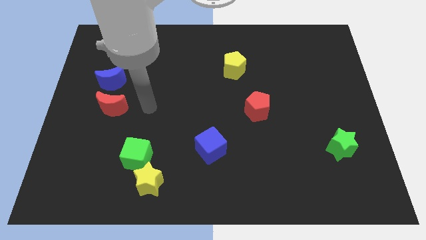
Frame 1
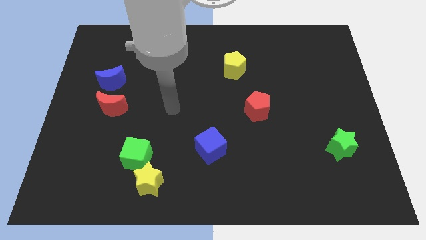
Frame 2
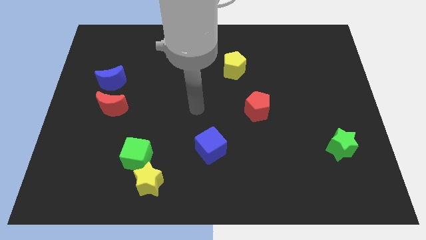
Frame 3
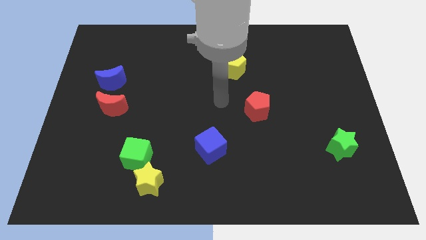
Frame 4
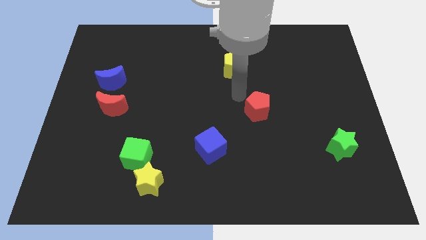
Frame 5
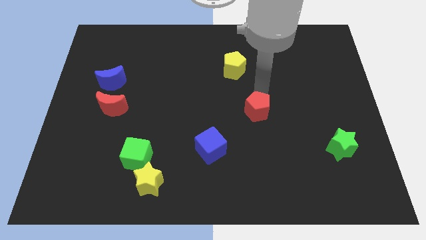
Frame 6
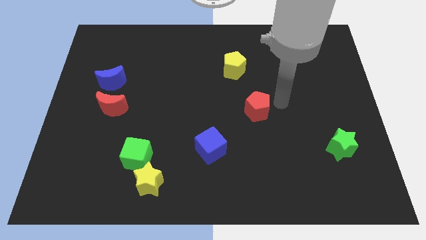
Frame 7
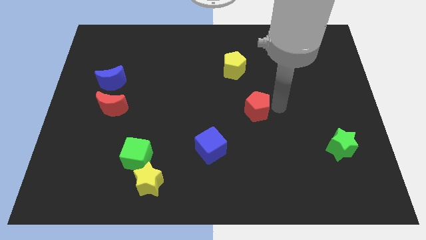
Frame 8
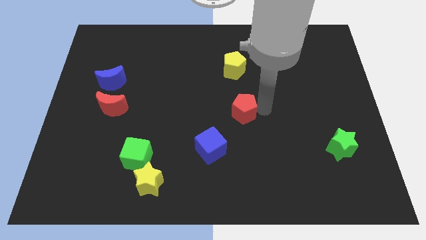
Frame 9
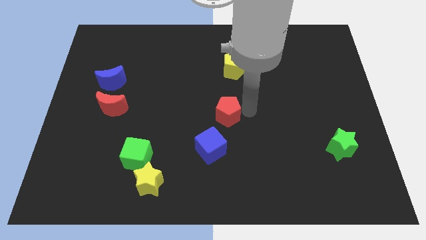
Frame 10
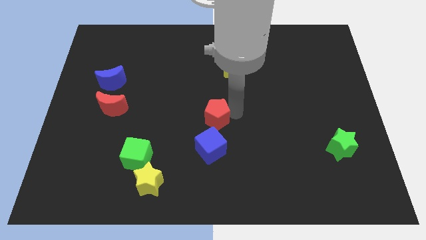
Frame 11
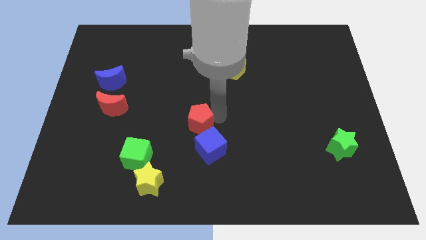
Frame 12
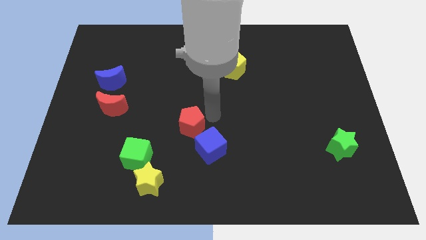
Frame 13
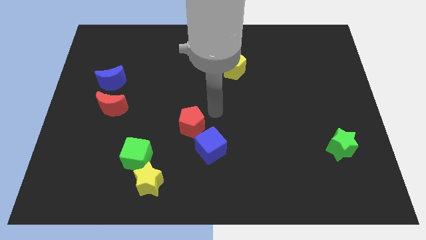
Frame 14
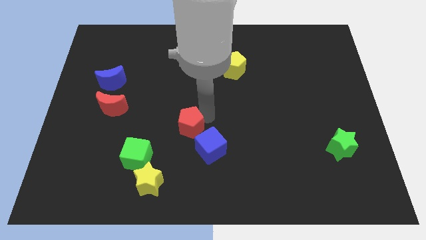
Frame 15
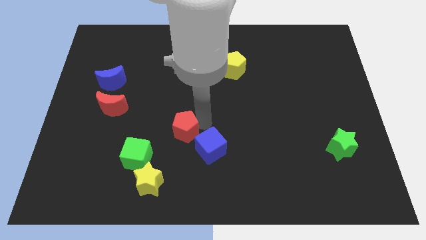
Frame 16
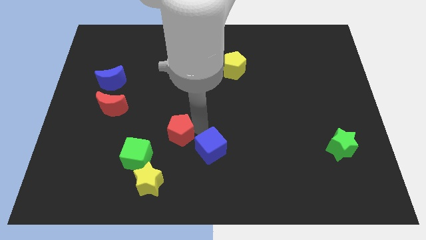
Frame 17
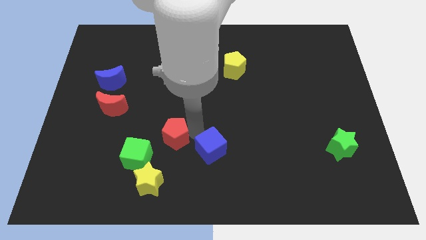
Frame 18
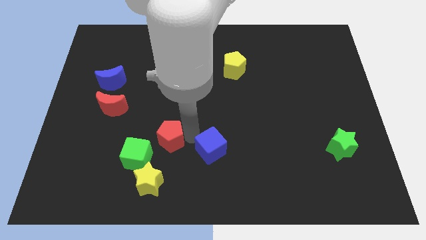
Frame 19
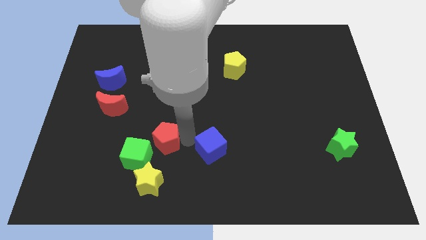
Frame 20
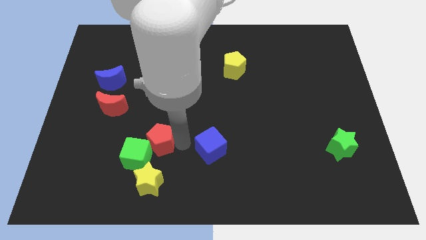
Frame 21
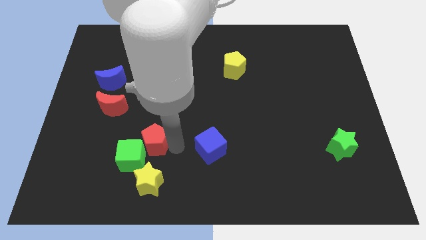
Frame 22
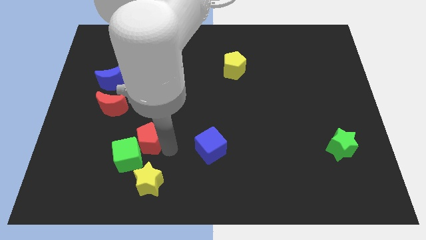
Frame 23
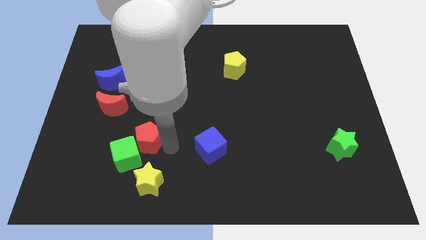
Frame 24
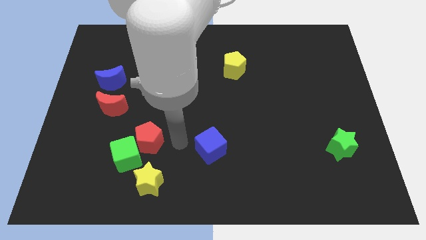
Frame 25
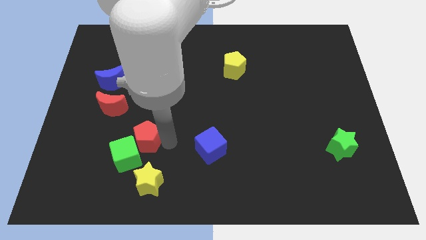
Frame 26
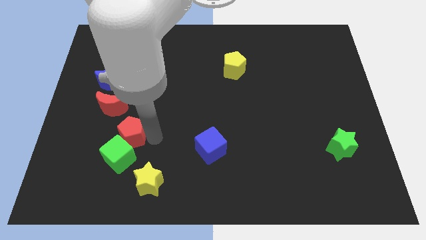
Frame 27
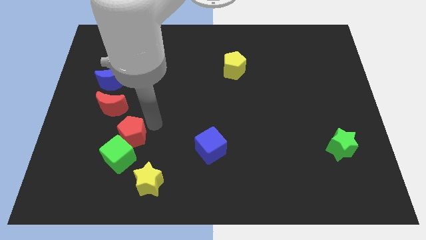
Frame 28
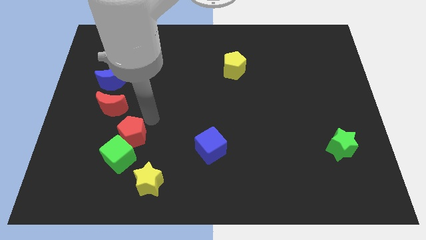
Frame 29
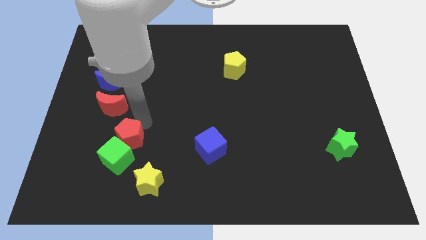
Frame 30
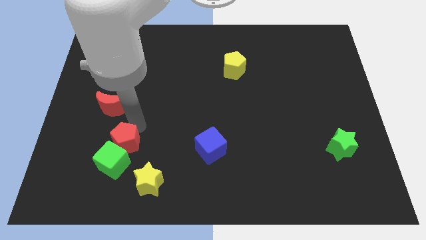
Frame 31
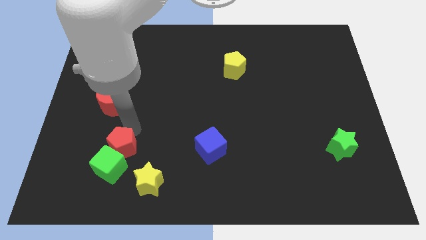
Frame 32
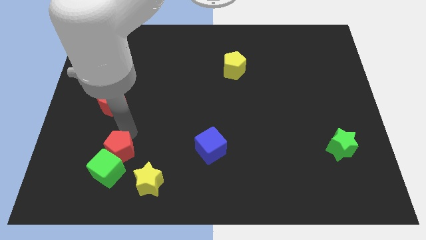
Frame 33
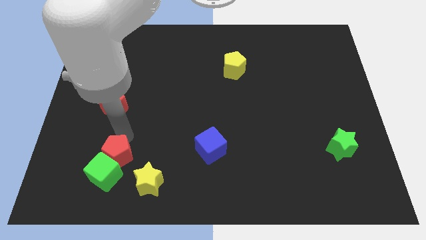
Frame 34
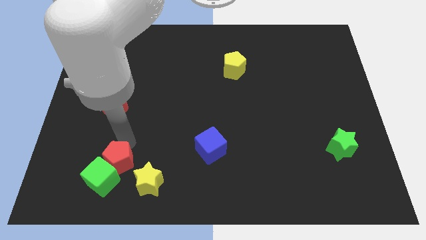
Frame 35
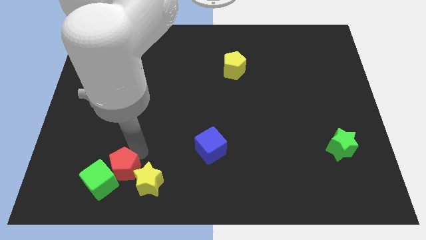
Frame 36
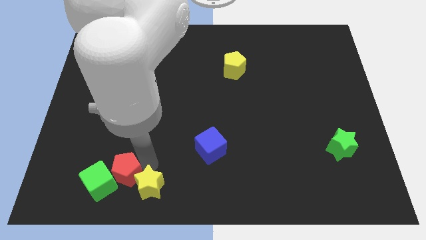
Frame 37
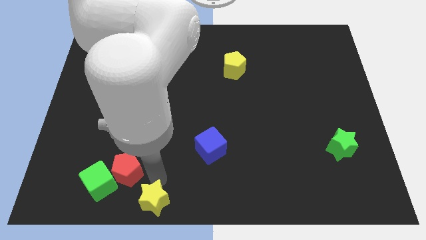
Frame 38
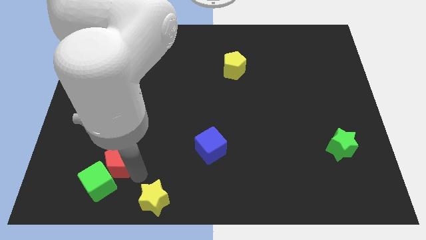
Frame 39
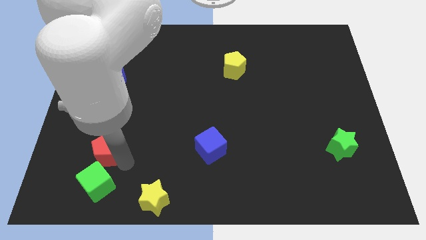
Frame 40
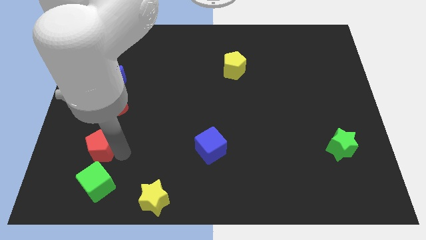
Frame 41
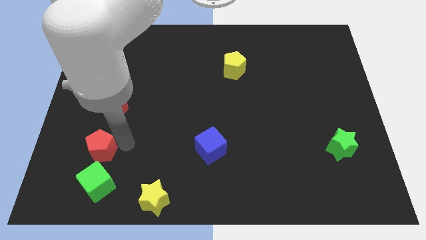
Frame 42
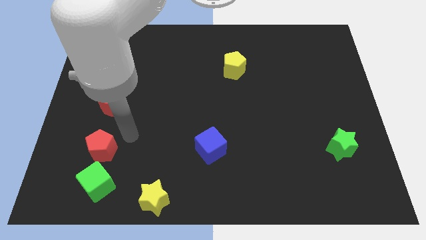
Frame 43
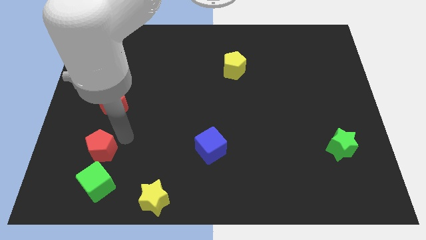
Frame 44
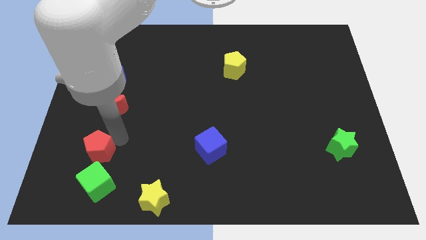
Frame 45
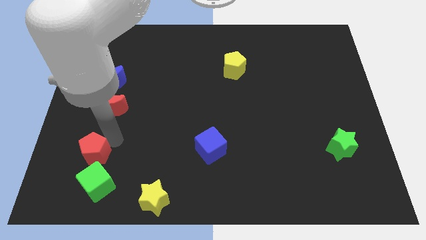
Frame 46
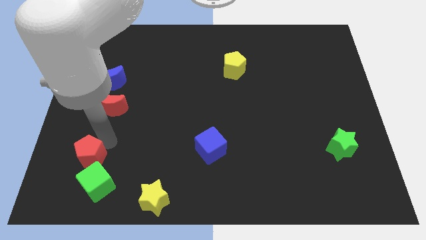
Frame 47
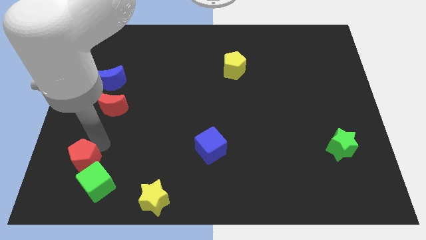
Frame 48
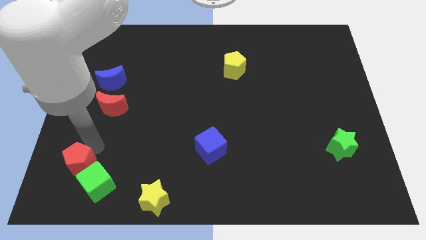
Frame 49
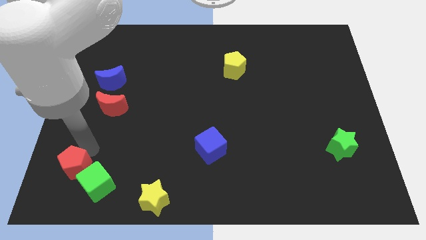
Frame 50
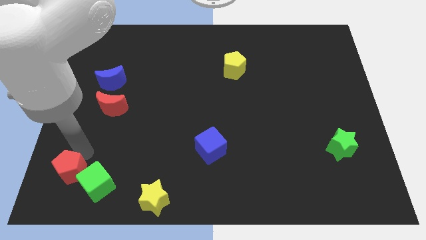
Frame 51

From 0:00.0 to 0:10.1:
put the red pentagon to the bottom left corner

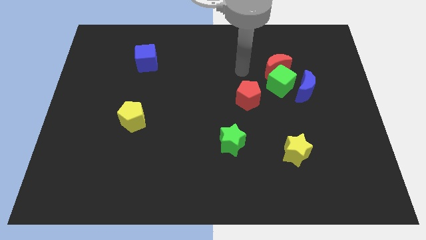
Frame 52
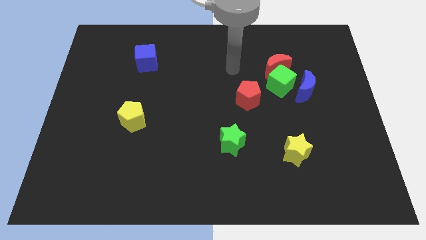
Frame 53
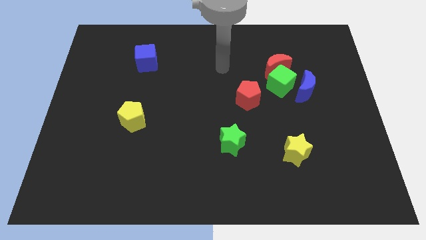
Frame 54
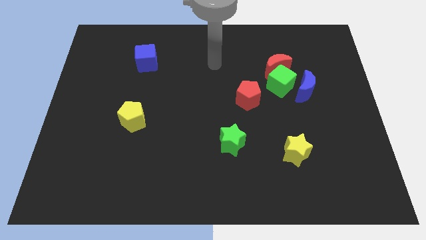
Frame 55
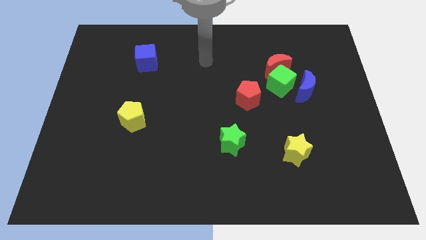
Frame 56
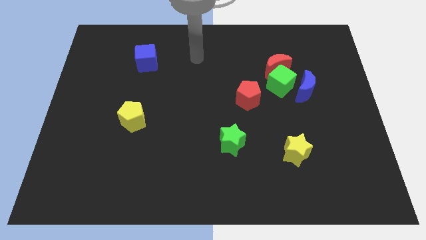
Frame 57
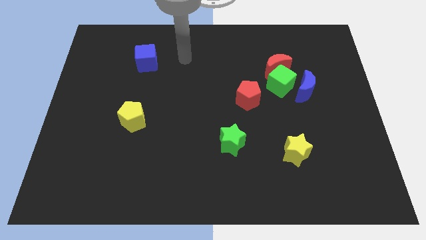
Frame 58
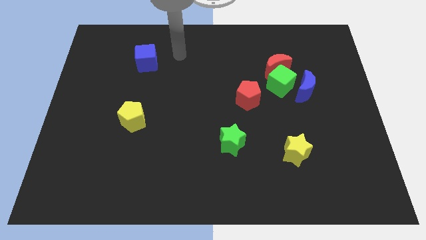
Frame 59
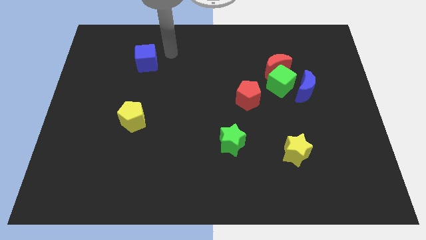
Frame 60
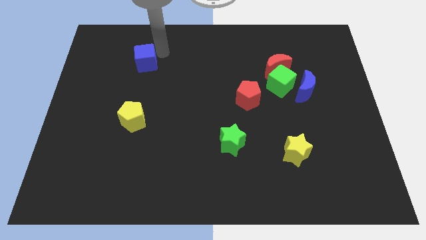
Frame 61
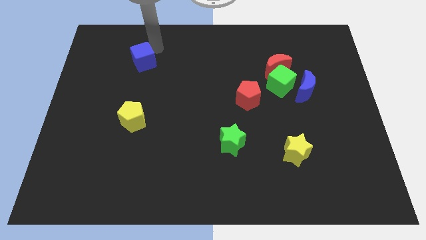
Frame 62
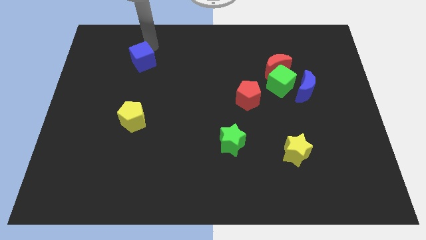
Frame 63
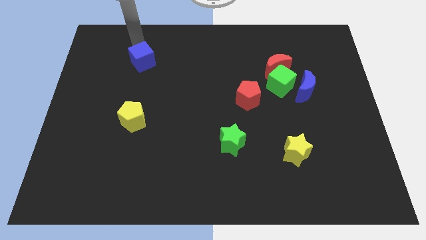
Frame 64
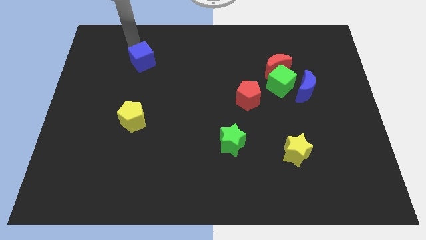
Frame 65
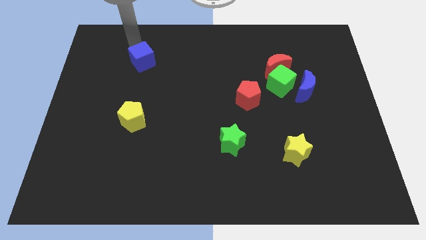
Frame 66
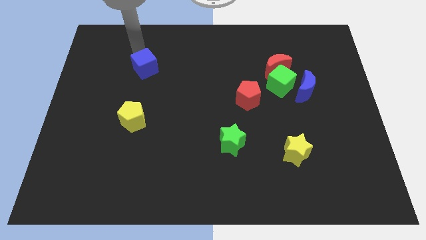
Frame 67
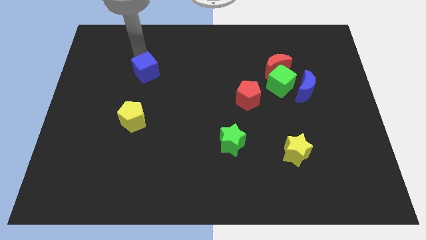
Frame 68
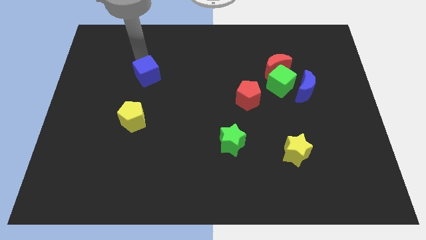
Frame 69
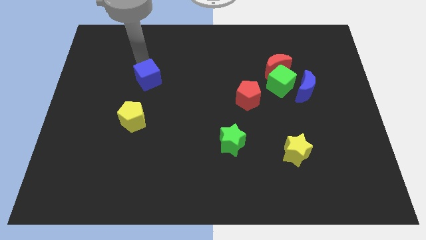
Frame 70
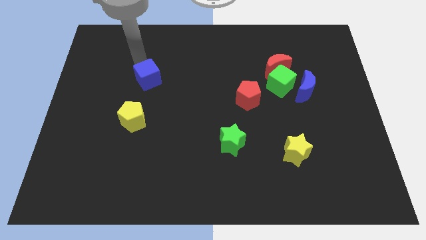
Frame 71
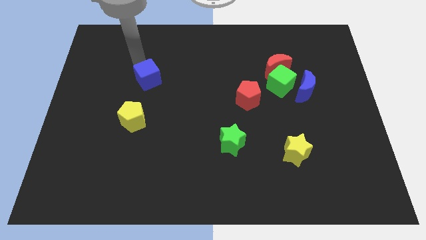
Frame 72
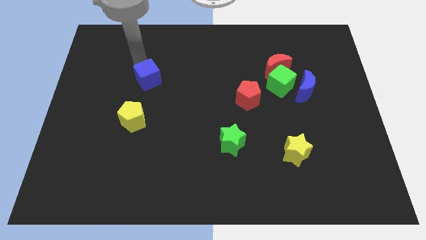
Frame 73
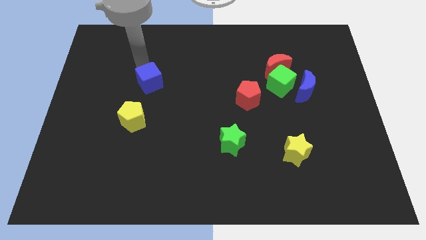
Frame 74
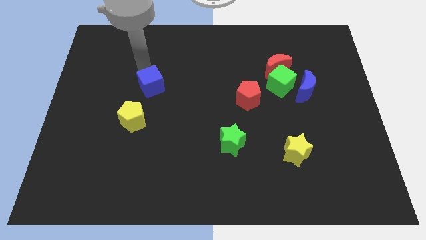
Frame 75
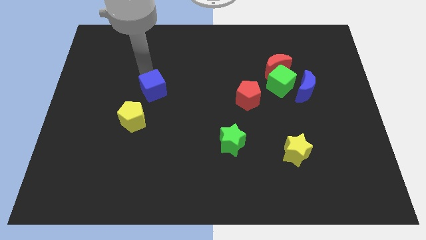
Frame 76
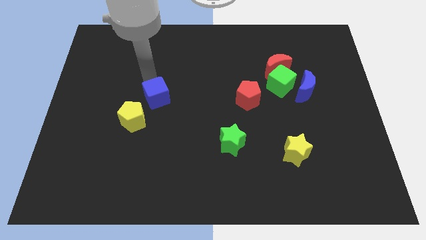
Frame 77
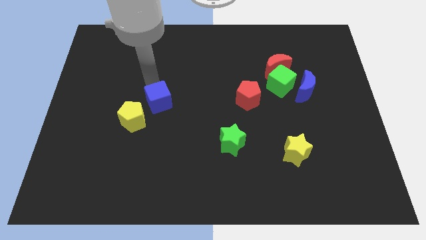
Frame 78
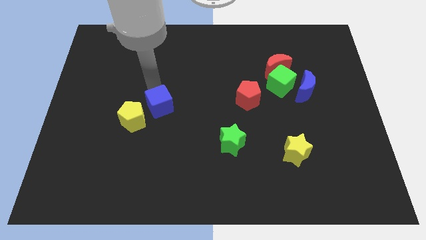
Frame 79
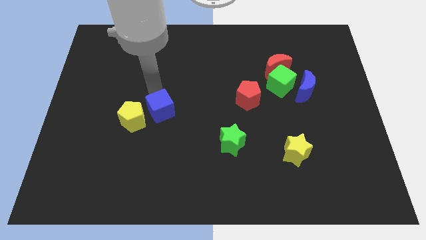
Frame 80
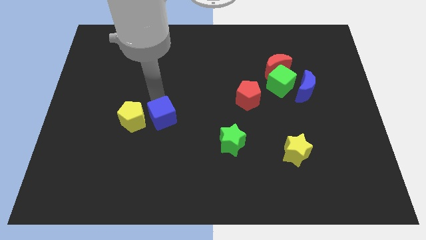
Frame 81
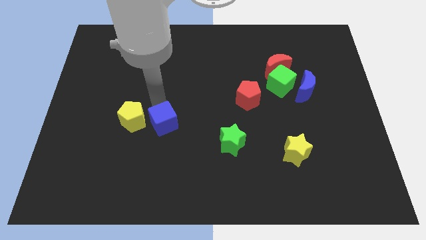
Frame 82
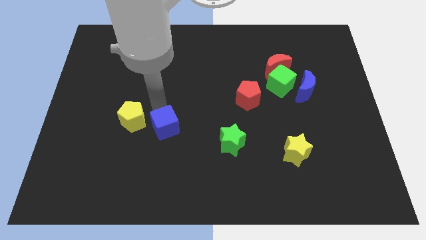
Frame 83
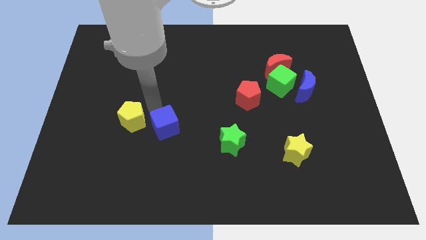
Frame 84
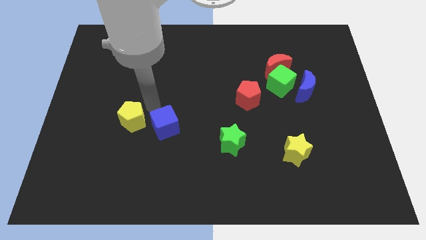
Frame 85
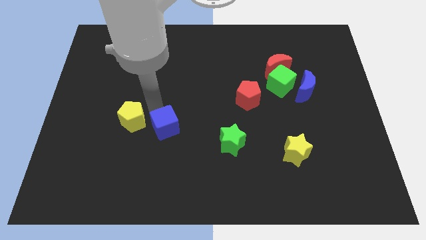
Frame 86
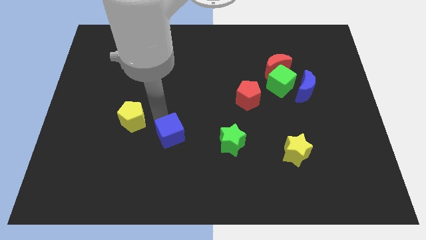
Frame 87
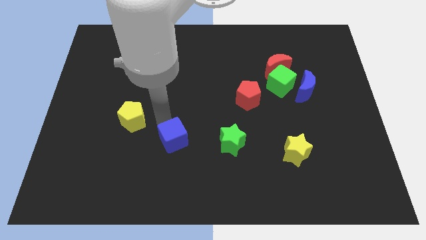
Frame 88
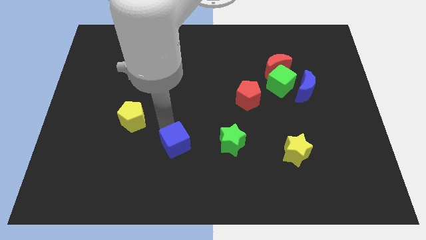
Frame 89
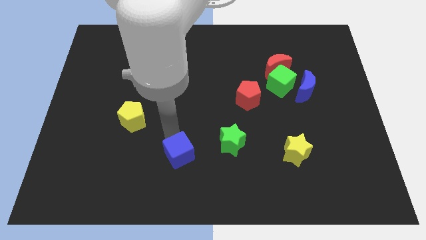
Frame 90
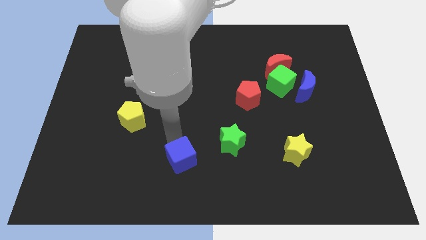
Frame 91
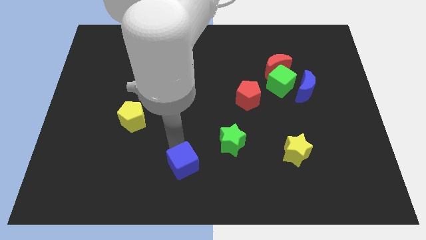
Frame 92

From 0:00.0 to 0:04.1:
slide the blue cube to the bottom
